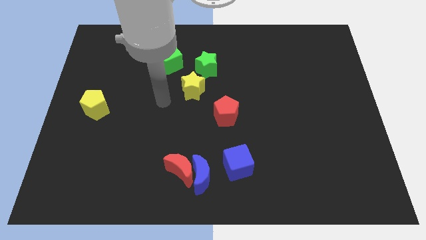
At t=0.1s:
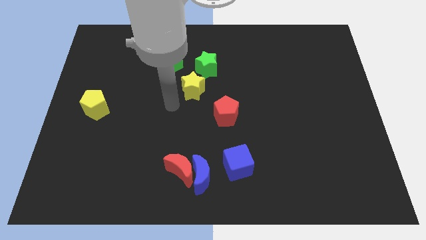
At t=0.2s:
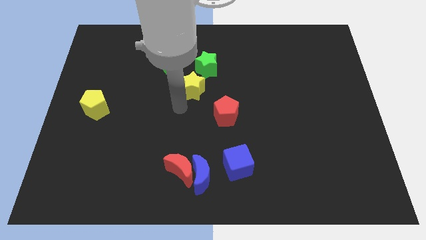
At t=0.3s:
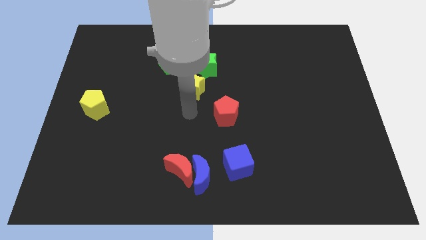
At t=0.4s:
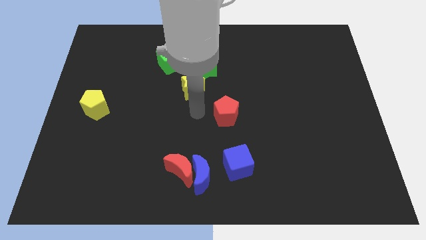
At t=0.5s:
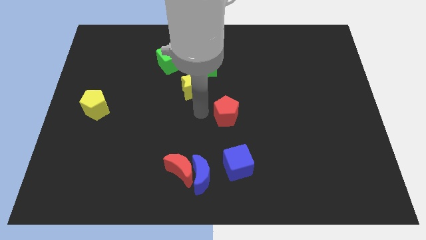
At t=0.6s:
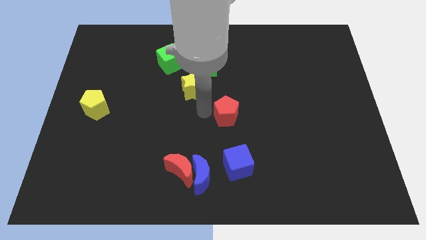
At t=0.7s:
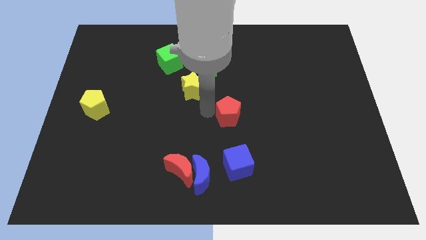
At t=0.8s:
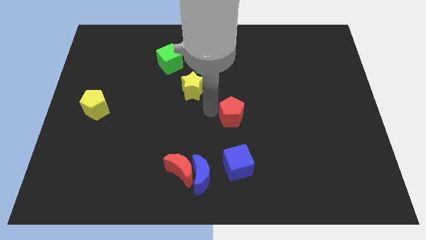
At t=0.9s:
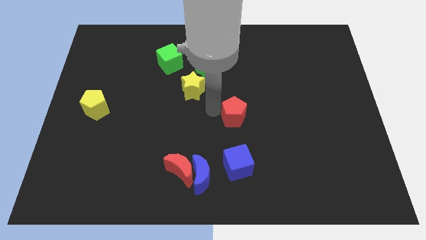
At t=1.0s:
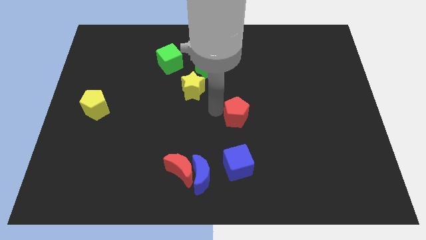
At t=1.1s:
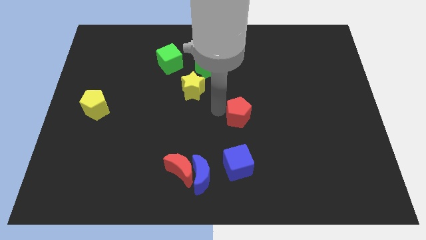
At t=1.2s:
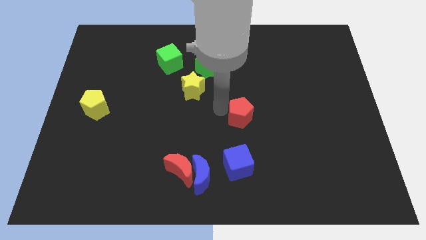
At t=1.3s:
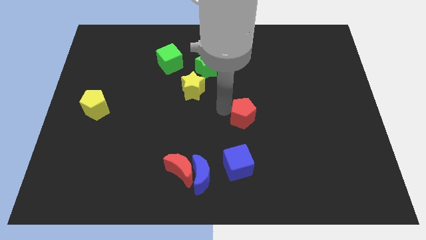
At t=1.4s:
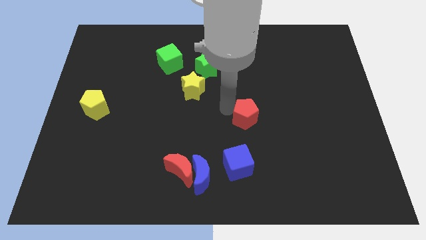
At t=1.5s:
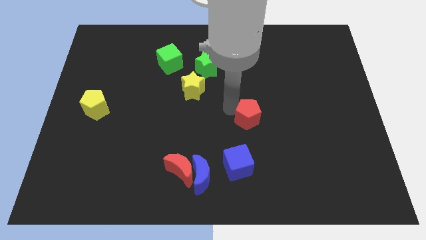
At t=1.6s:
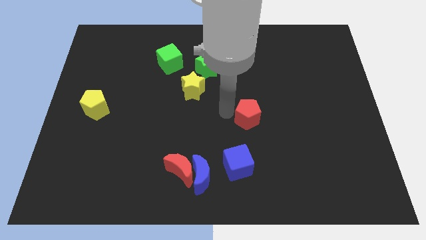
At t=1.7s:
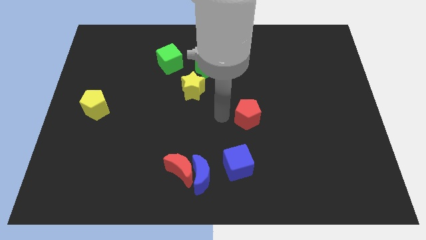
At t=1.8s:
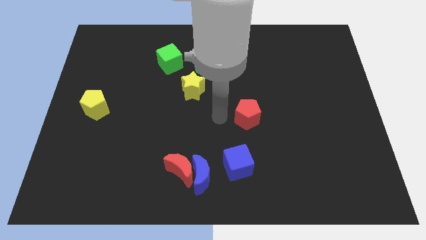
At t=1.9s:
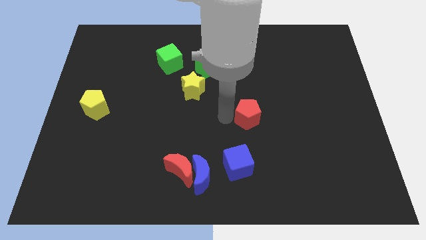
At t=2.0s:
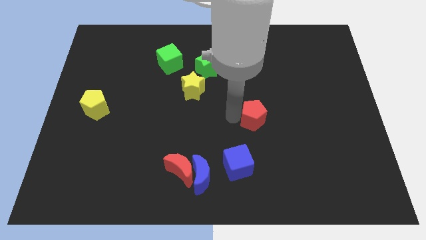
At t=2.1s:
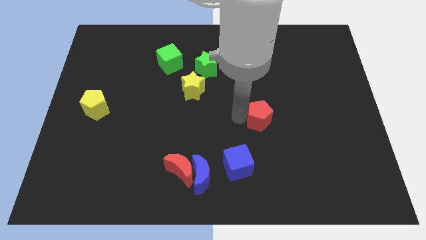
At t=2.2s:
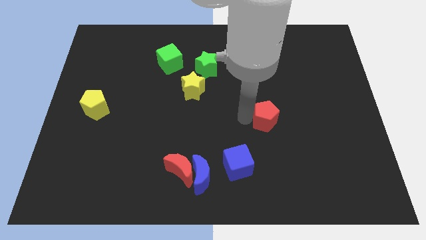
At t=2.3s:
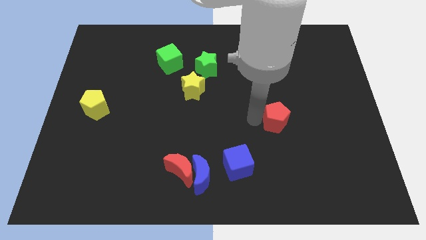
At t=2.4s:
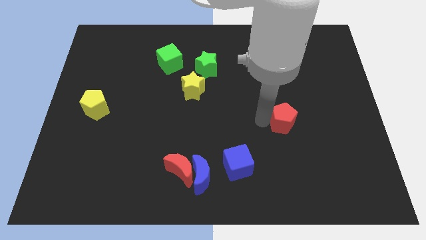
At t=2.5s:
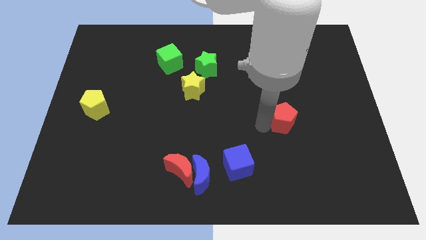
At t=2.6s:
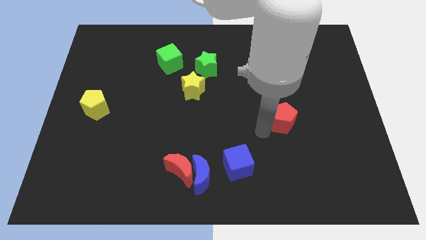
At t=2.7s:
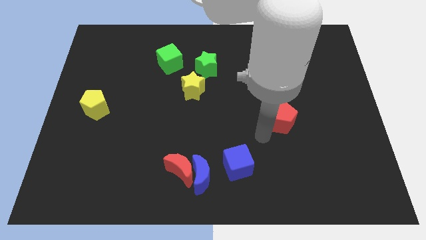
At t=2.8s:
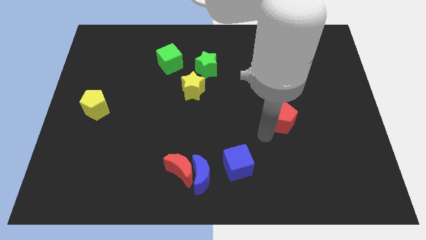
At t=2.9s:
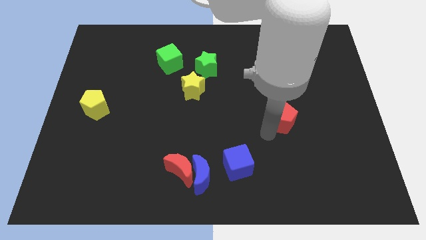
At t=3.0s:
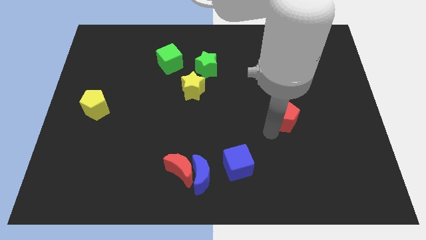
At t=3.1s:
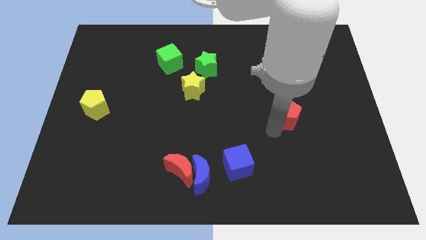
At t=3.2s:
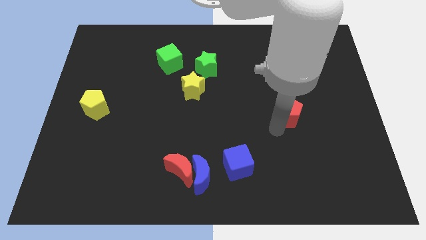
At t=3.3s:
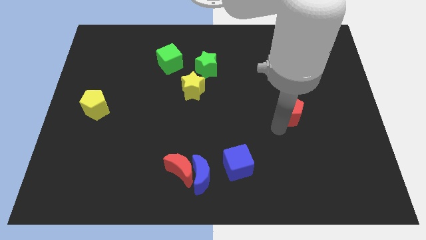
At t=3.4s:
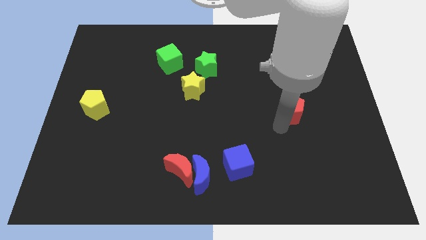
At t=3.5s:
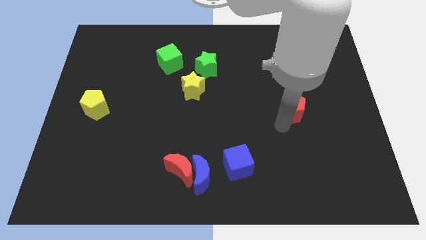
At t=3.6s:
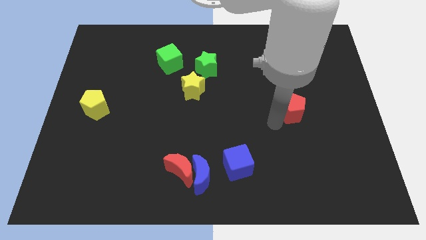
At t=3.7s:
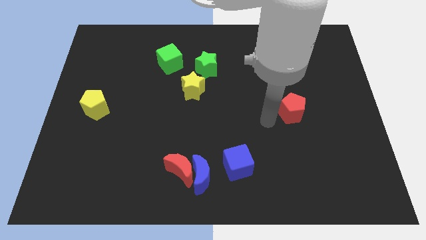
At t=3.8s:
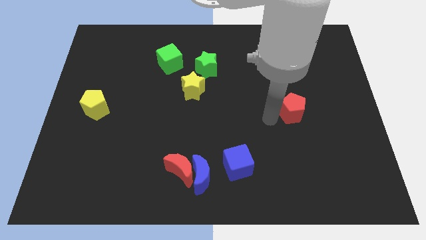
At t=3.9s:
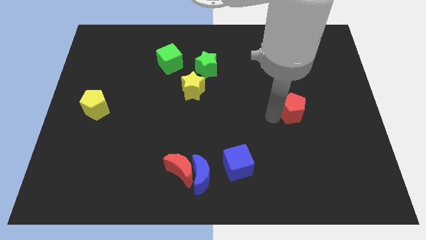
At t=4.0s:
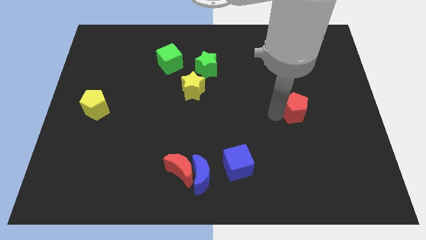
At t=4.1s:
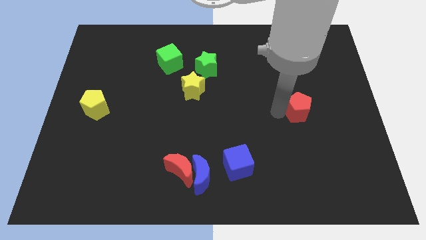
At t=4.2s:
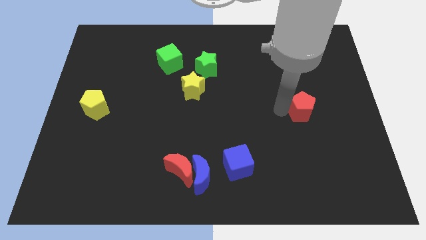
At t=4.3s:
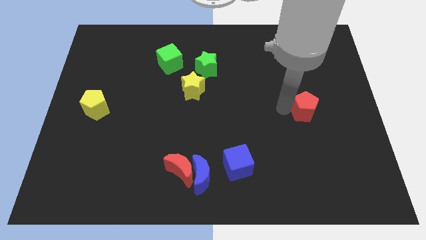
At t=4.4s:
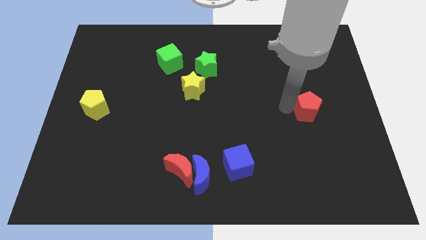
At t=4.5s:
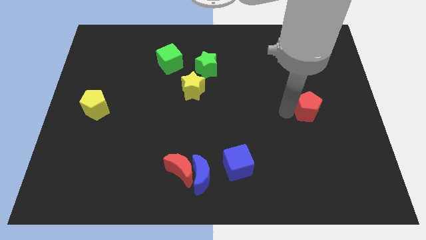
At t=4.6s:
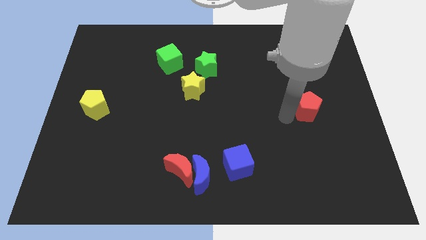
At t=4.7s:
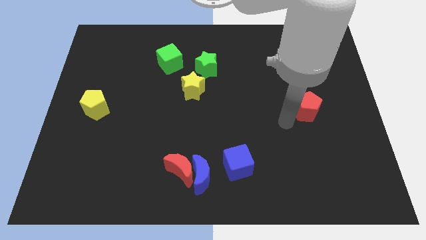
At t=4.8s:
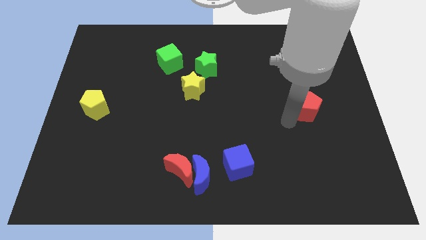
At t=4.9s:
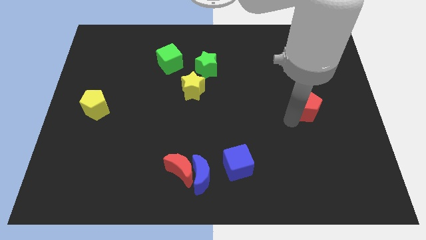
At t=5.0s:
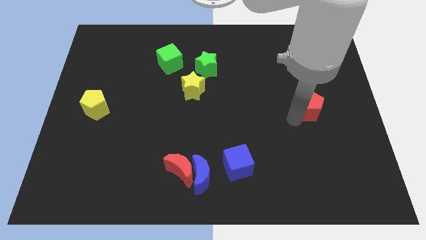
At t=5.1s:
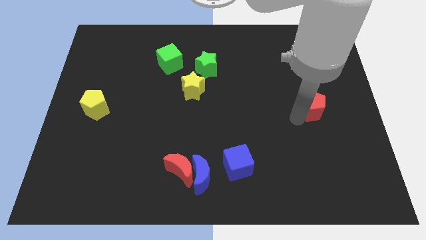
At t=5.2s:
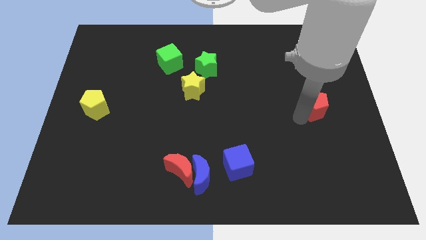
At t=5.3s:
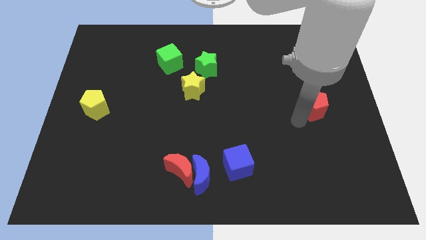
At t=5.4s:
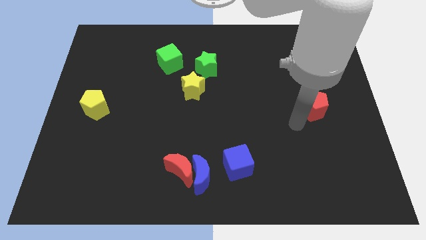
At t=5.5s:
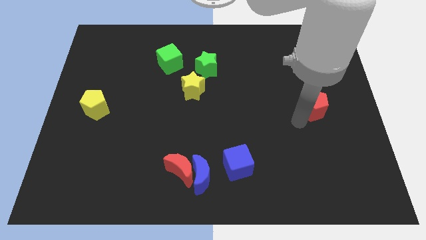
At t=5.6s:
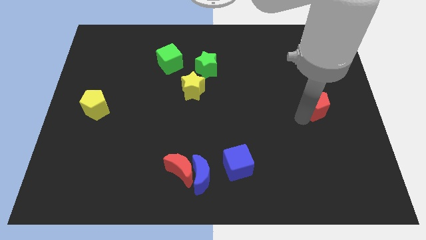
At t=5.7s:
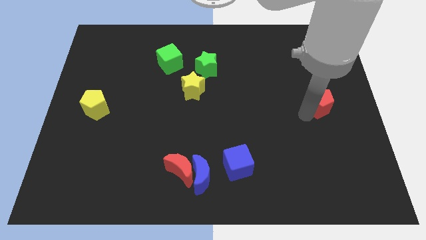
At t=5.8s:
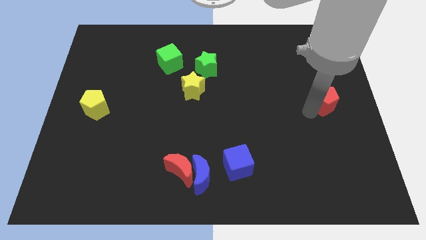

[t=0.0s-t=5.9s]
put the red pentagon to the right side of the board
